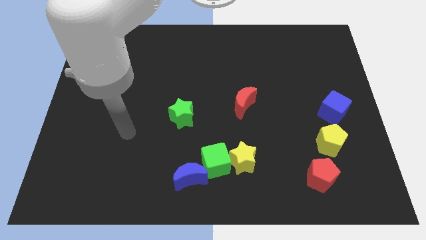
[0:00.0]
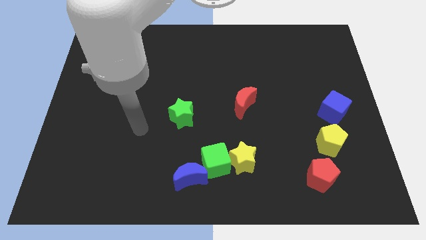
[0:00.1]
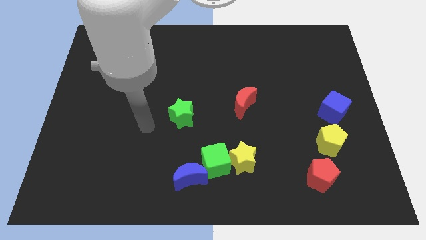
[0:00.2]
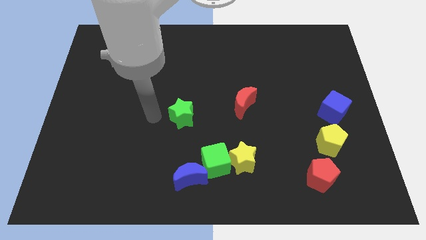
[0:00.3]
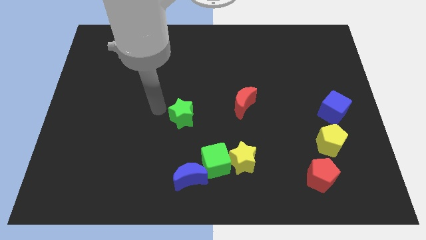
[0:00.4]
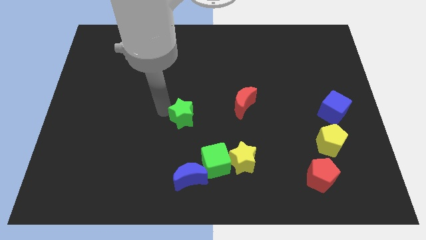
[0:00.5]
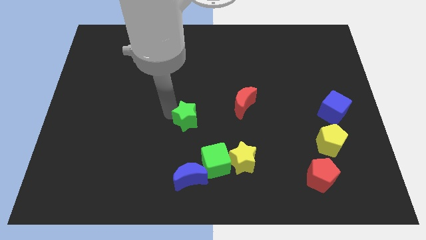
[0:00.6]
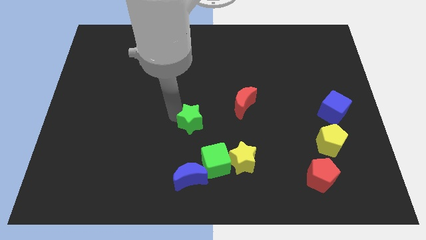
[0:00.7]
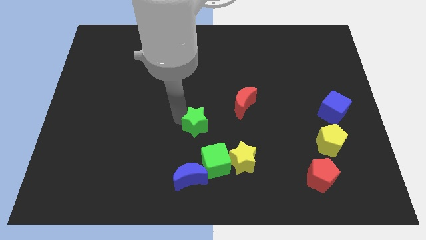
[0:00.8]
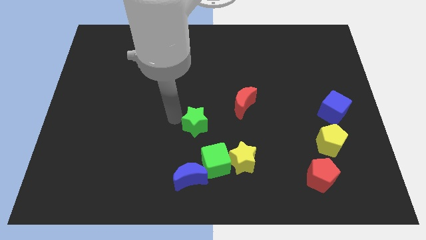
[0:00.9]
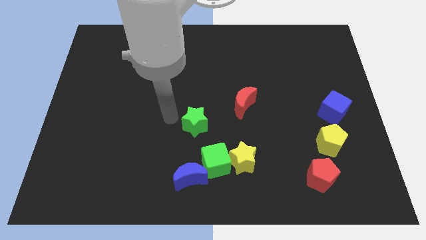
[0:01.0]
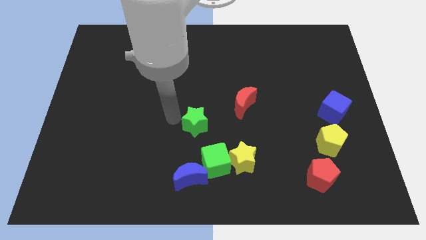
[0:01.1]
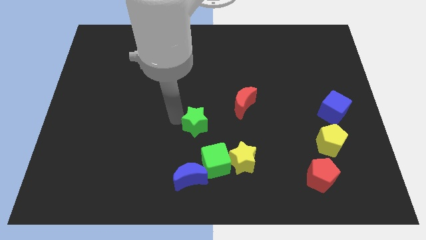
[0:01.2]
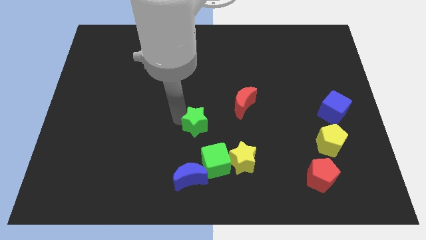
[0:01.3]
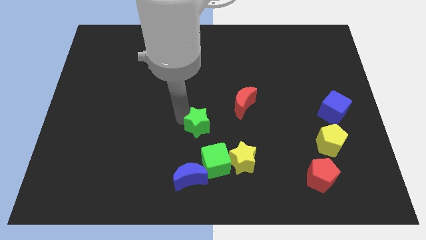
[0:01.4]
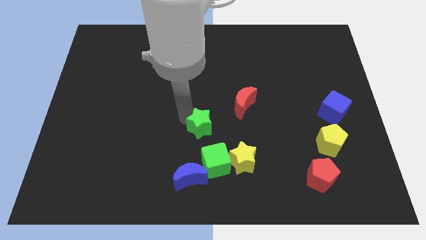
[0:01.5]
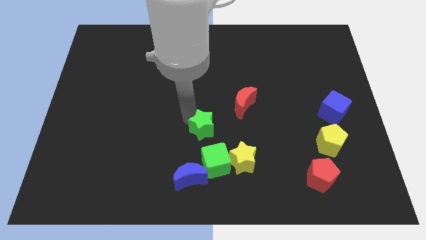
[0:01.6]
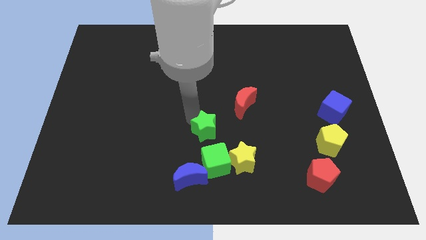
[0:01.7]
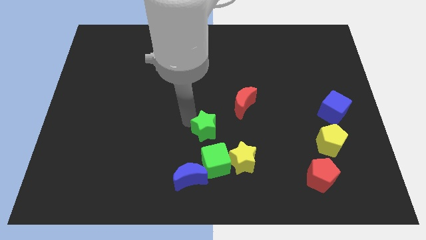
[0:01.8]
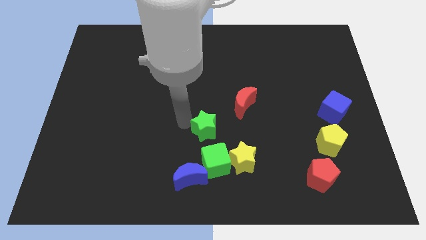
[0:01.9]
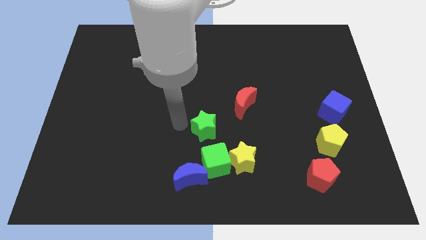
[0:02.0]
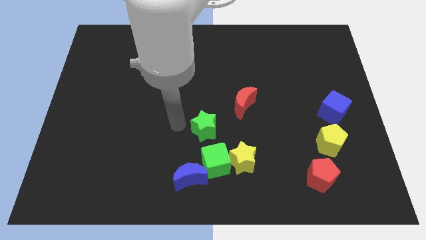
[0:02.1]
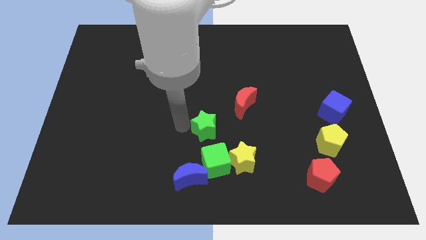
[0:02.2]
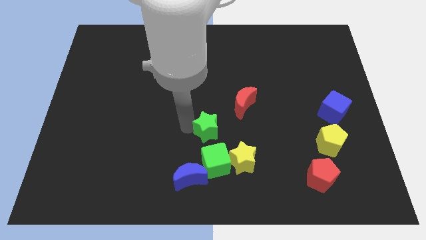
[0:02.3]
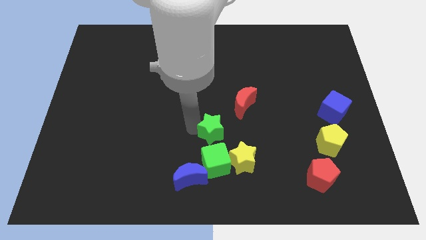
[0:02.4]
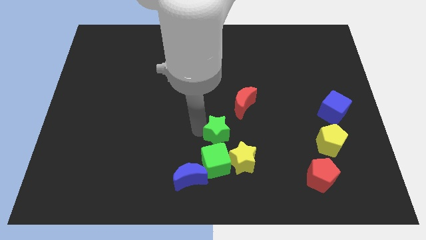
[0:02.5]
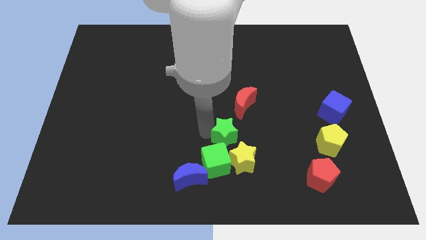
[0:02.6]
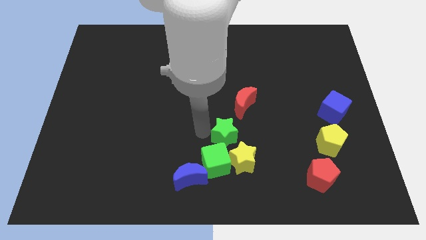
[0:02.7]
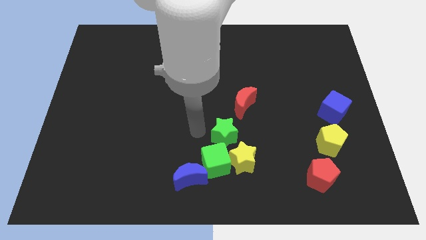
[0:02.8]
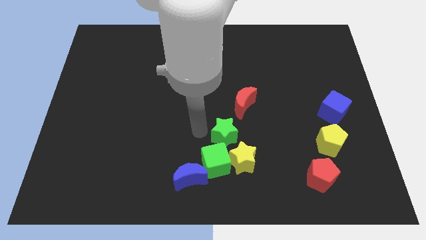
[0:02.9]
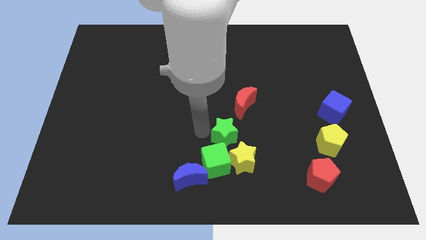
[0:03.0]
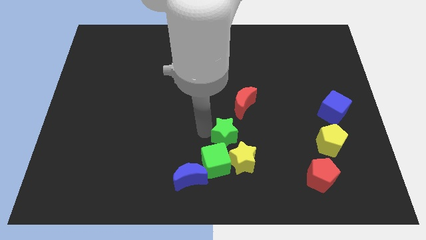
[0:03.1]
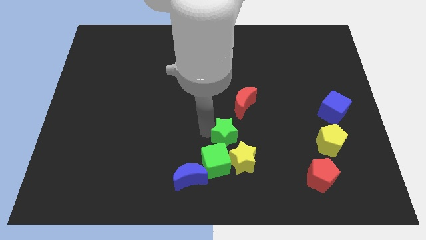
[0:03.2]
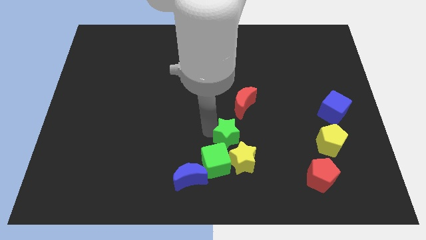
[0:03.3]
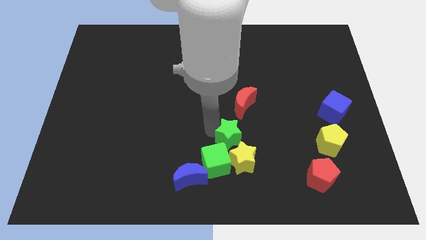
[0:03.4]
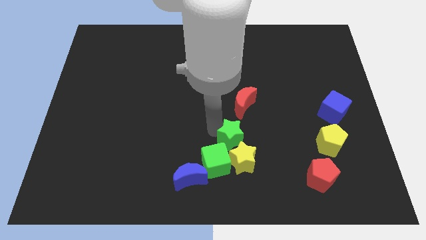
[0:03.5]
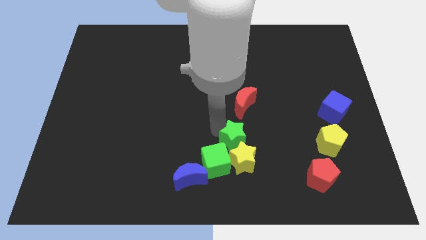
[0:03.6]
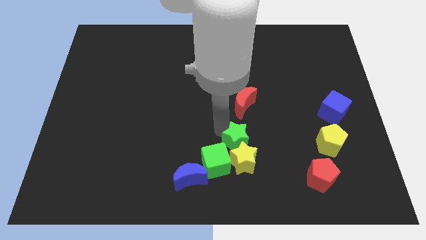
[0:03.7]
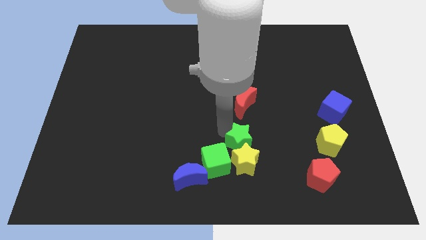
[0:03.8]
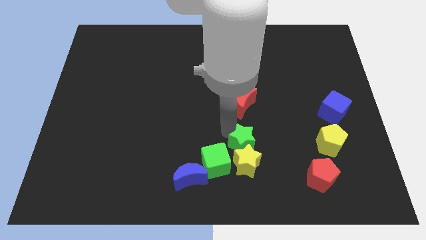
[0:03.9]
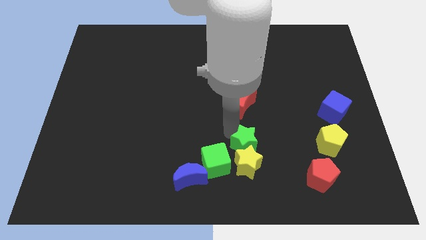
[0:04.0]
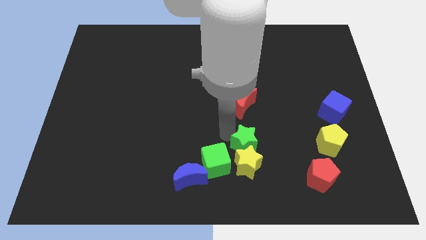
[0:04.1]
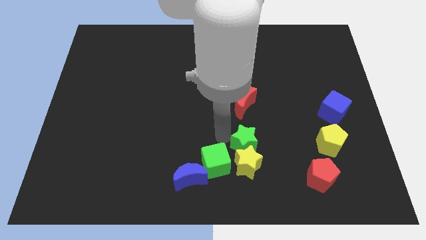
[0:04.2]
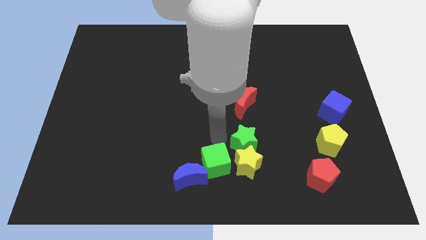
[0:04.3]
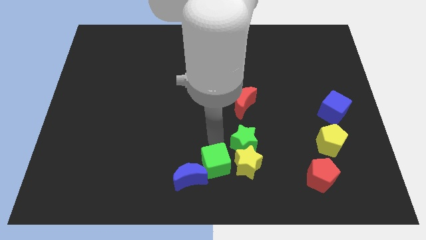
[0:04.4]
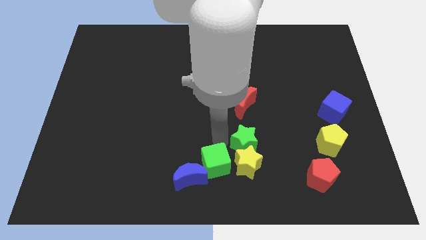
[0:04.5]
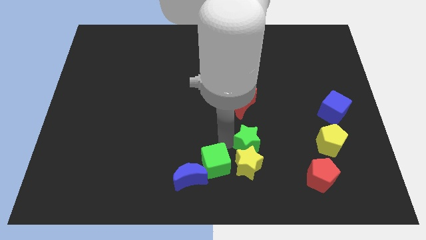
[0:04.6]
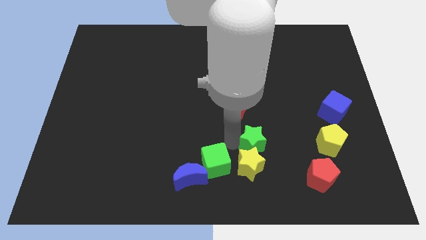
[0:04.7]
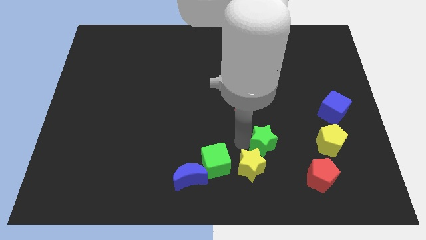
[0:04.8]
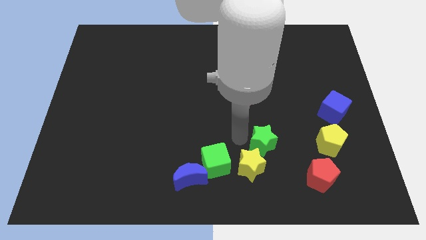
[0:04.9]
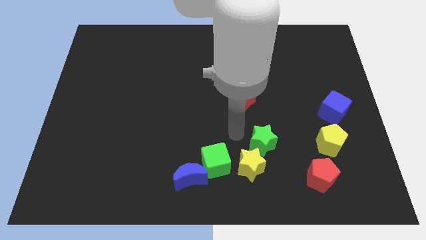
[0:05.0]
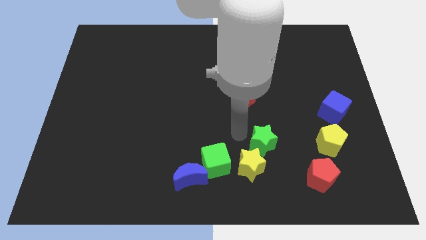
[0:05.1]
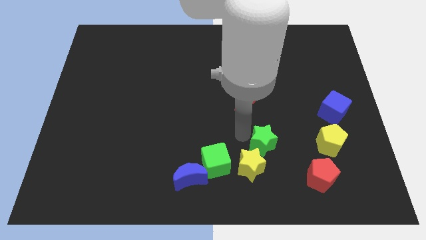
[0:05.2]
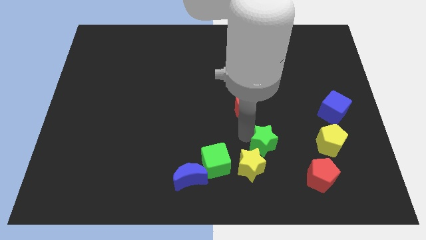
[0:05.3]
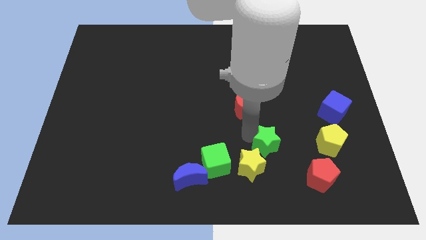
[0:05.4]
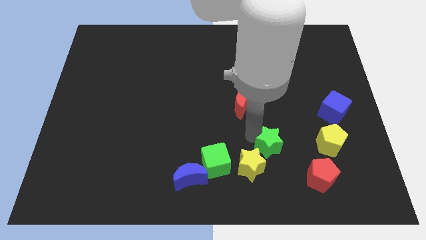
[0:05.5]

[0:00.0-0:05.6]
push the green star to the top left side of the red pentagon

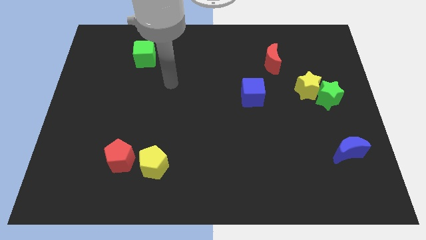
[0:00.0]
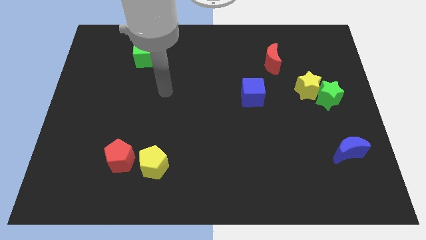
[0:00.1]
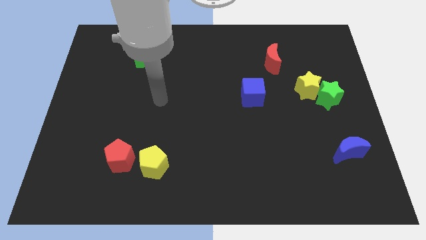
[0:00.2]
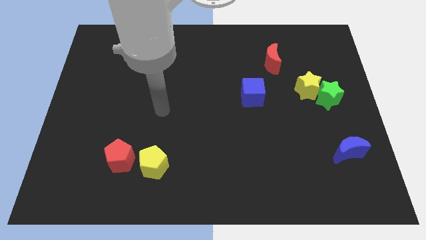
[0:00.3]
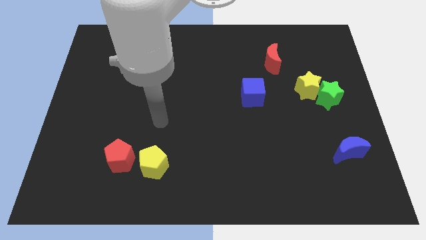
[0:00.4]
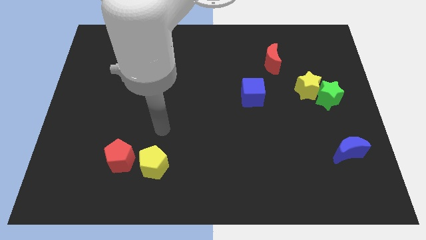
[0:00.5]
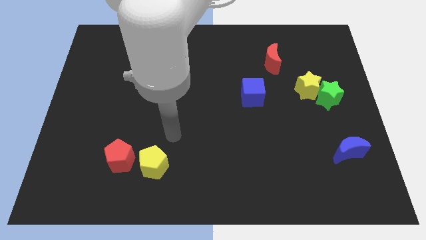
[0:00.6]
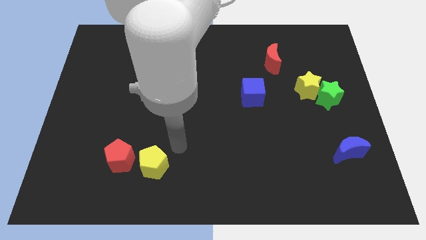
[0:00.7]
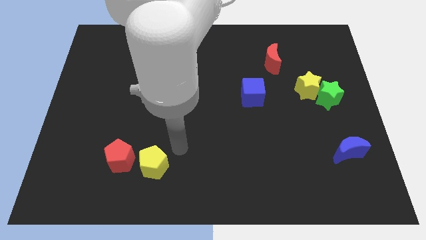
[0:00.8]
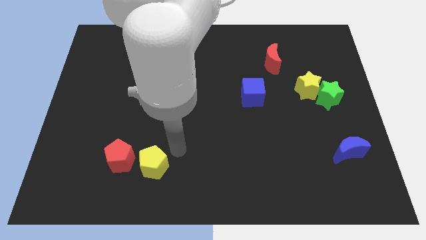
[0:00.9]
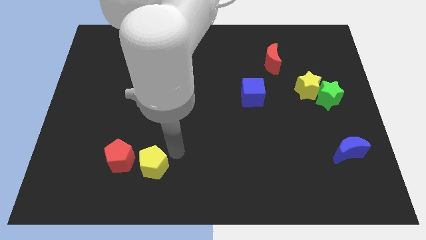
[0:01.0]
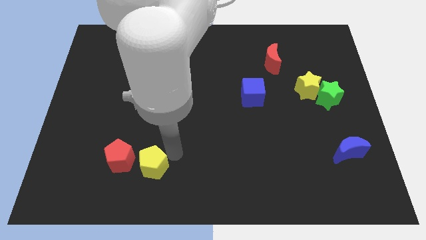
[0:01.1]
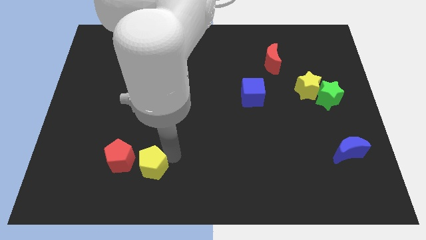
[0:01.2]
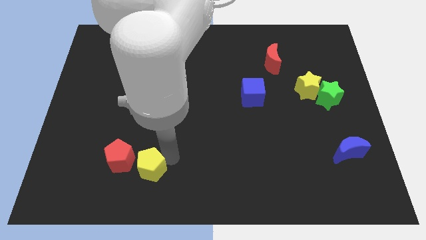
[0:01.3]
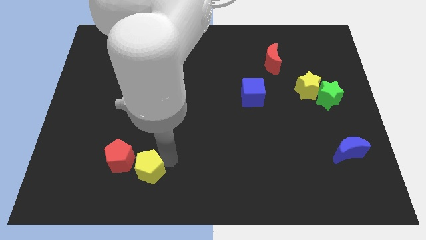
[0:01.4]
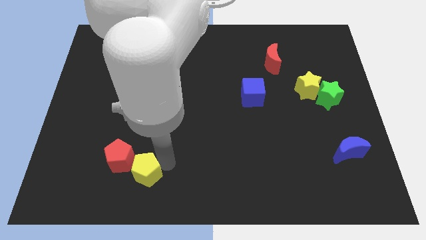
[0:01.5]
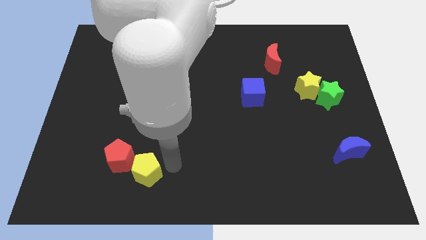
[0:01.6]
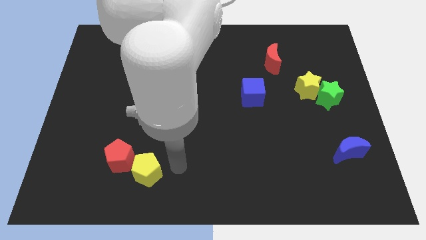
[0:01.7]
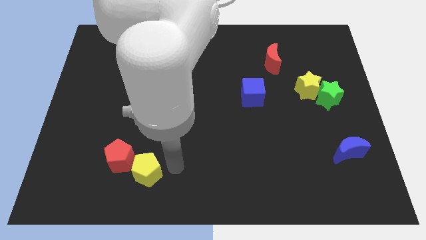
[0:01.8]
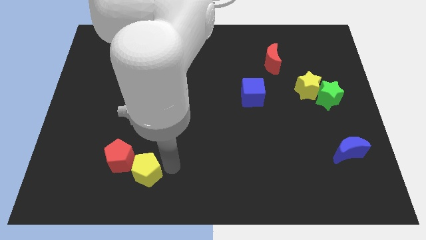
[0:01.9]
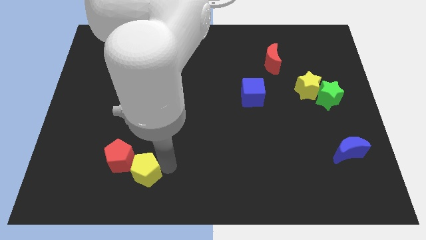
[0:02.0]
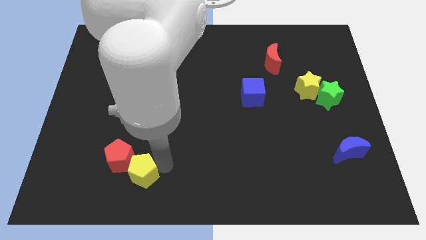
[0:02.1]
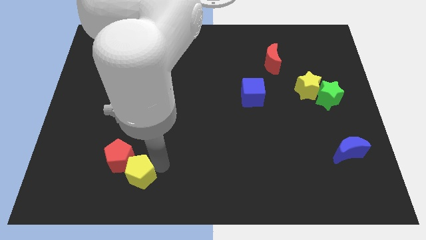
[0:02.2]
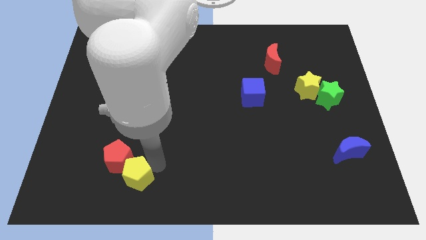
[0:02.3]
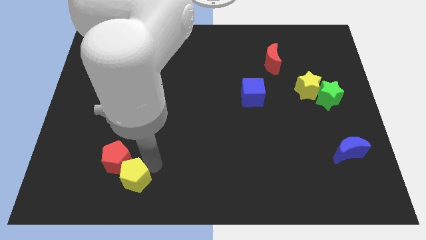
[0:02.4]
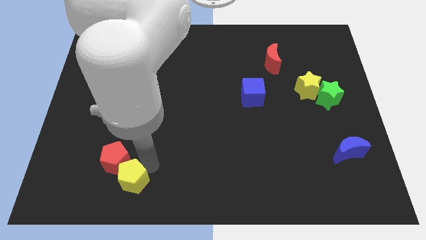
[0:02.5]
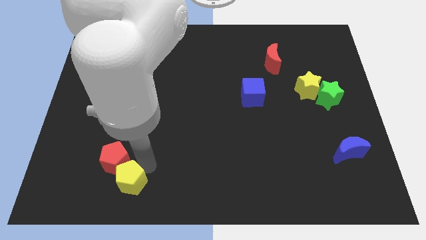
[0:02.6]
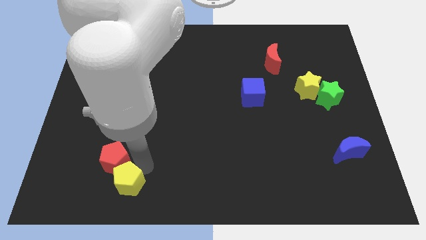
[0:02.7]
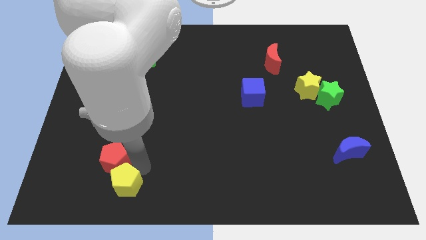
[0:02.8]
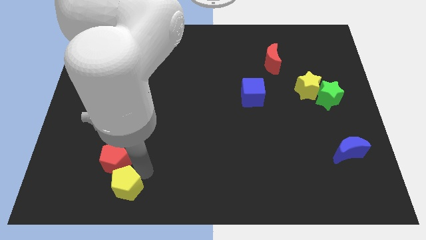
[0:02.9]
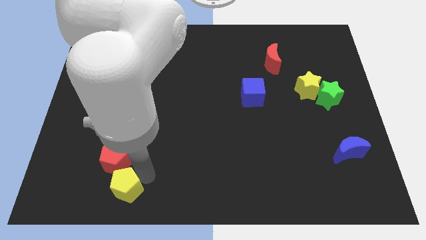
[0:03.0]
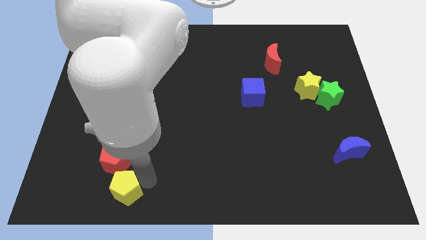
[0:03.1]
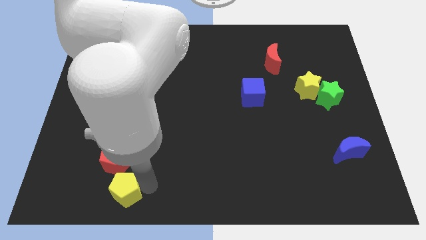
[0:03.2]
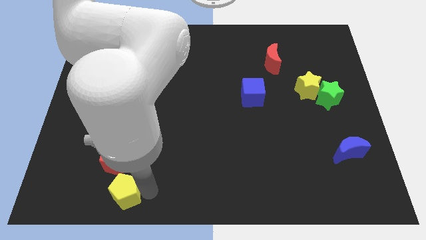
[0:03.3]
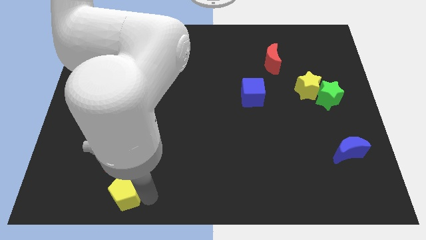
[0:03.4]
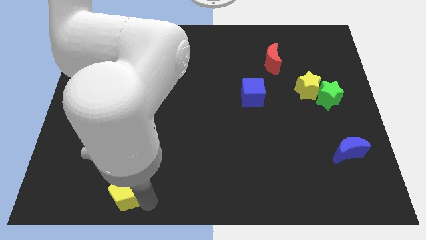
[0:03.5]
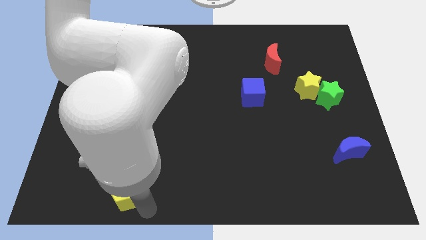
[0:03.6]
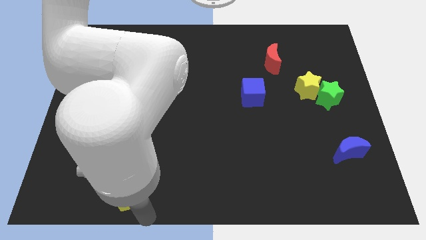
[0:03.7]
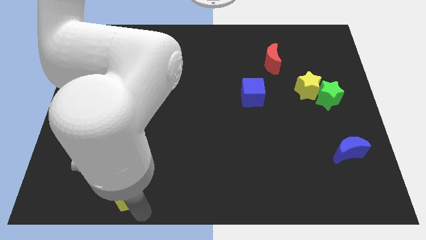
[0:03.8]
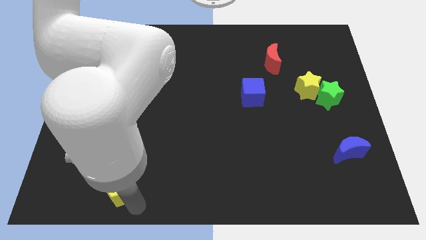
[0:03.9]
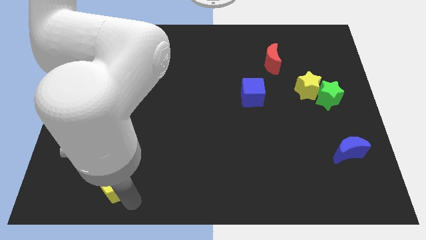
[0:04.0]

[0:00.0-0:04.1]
move the yellow pentagon to the bottom left side of the red pentagon
